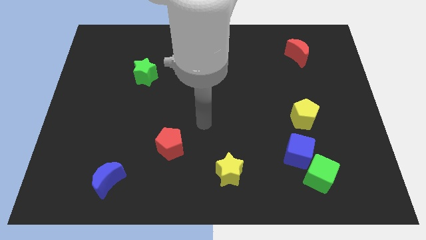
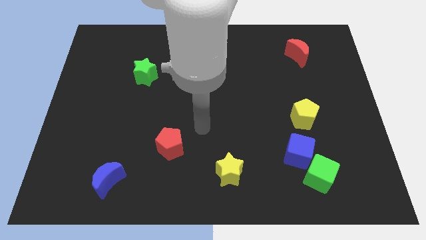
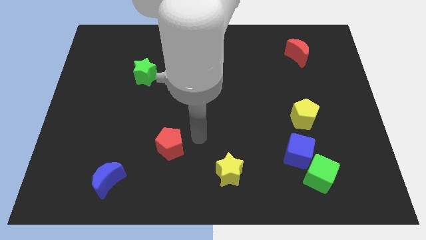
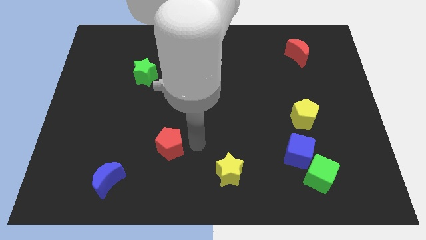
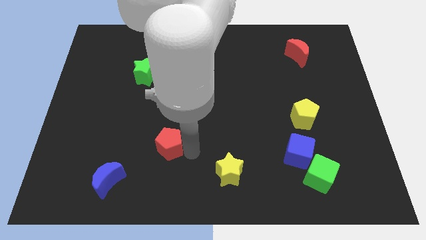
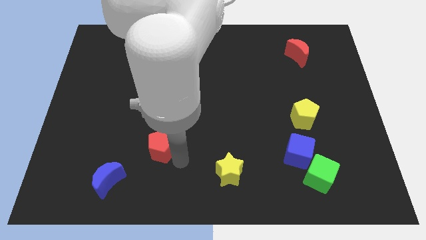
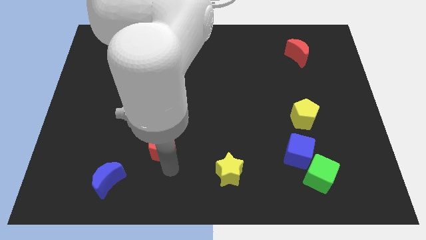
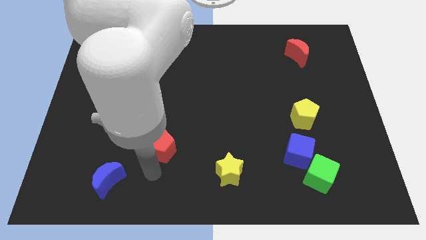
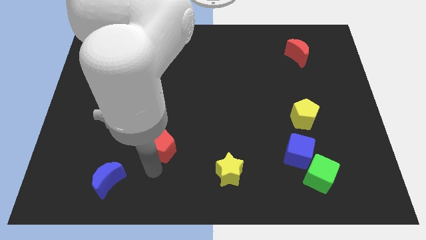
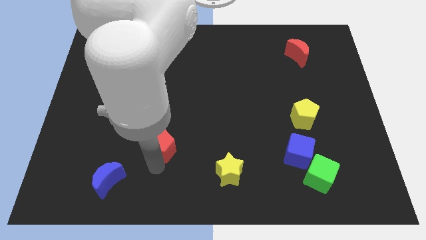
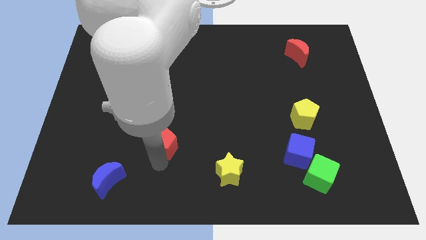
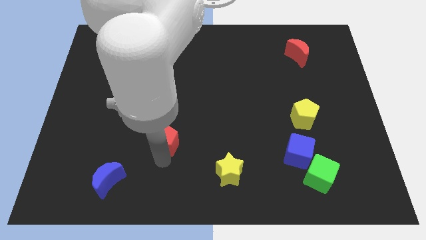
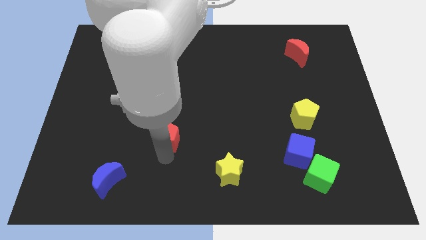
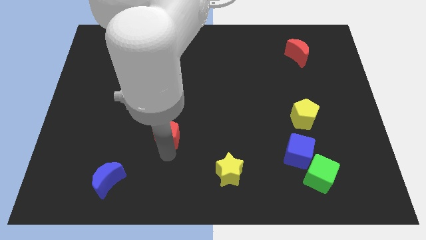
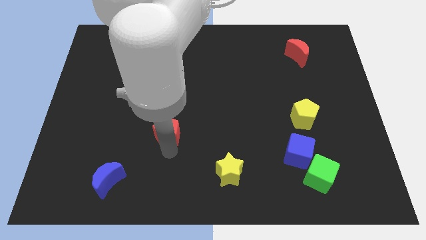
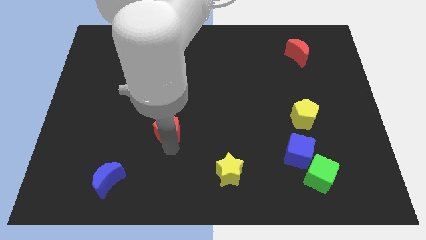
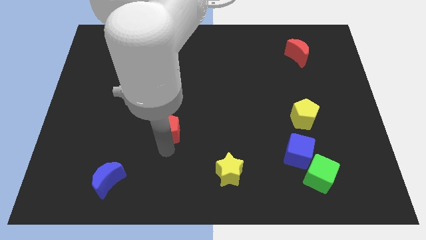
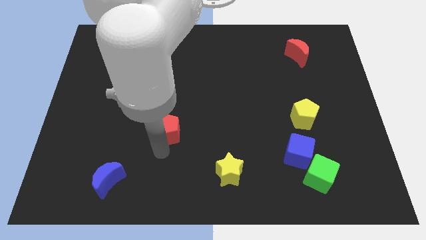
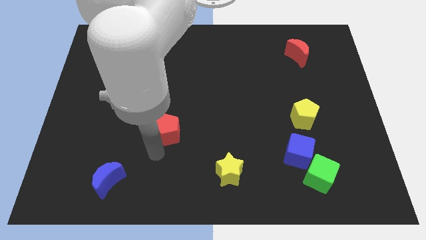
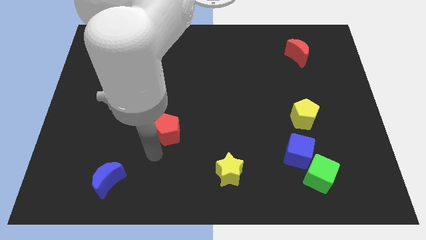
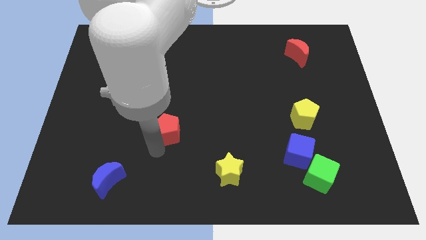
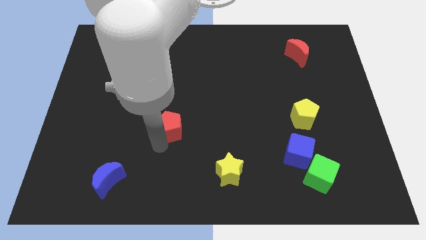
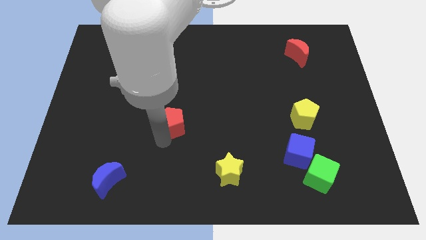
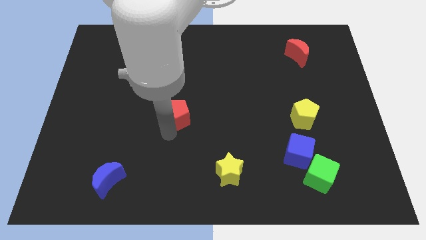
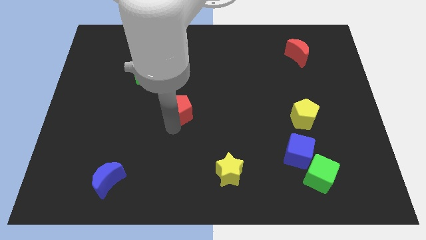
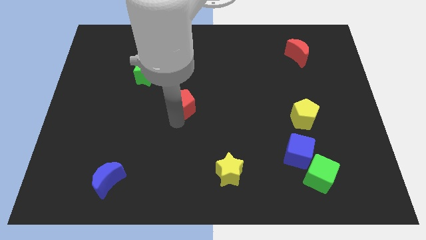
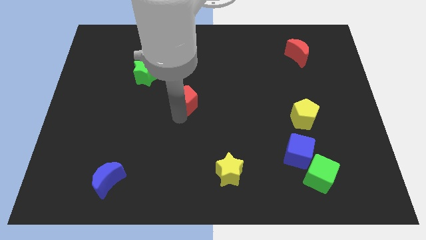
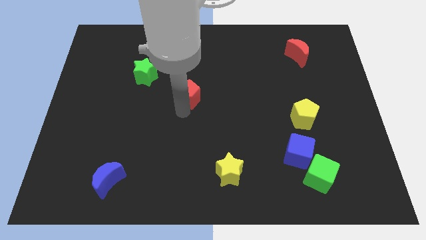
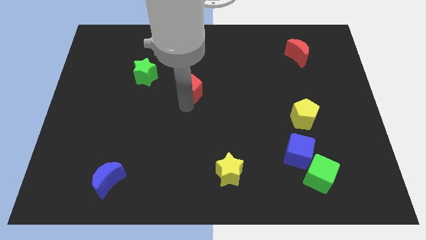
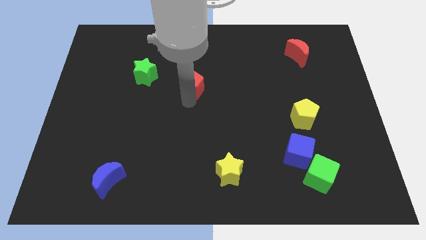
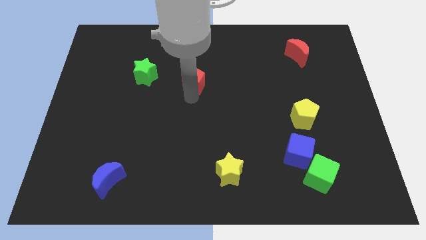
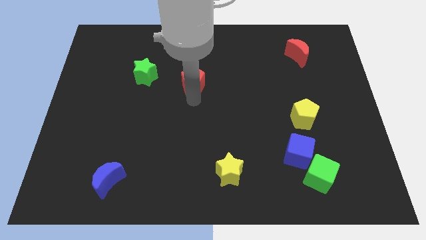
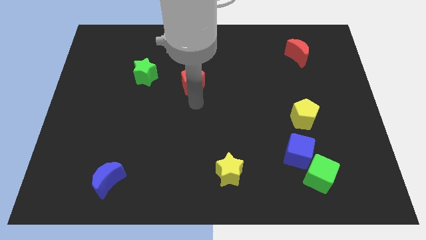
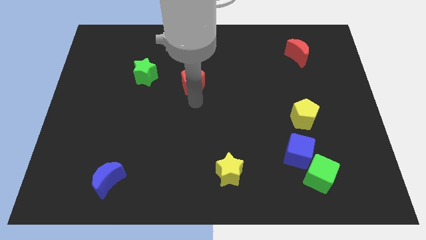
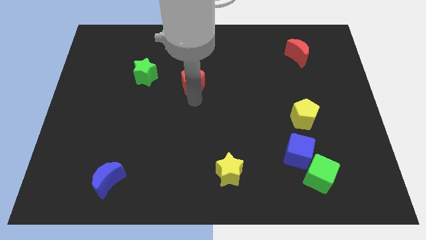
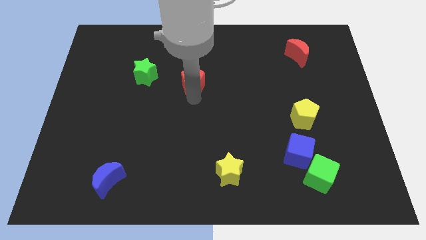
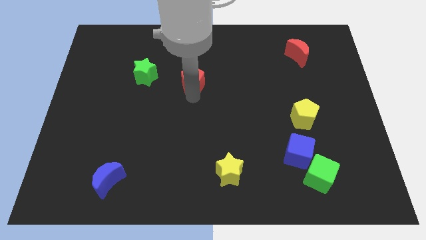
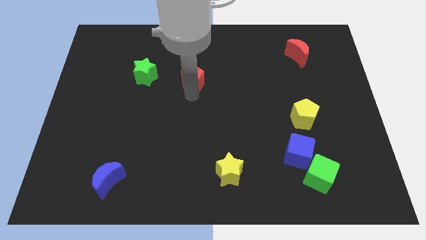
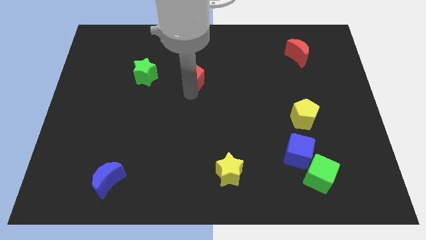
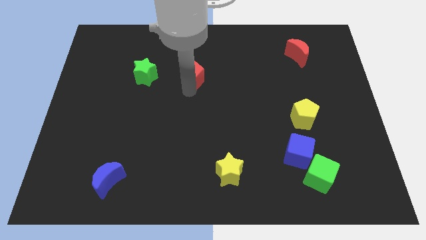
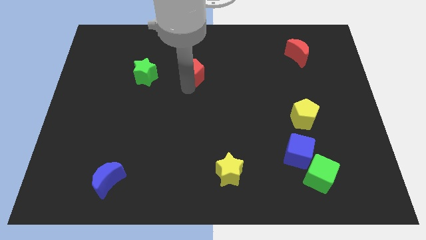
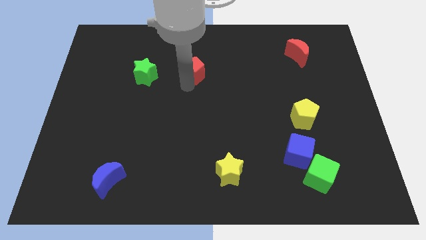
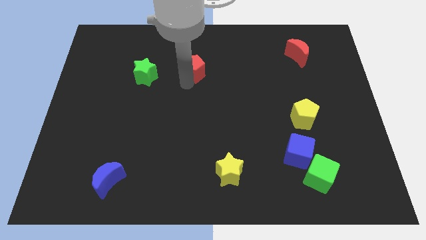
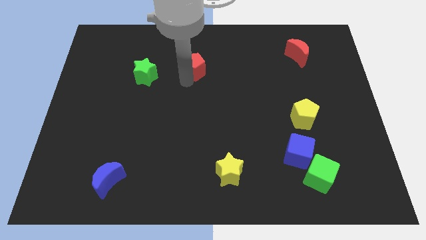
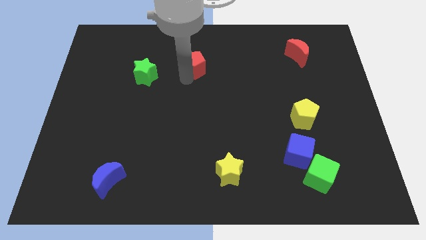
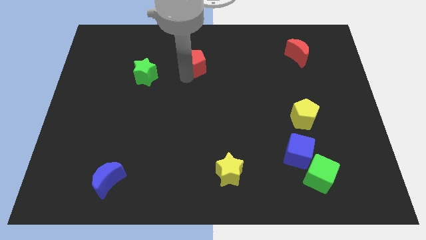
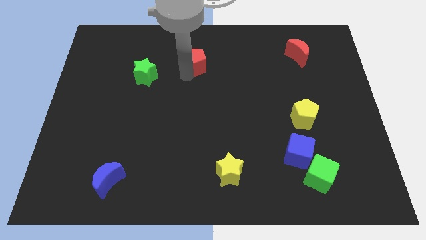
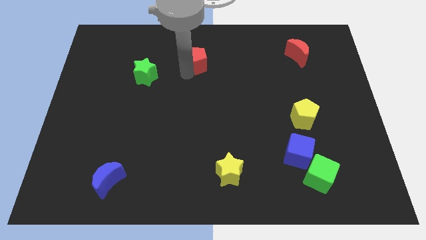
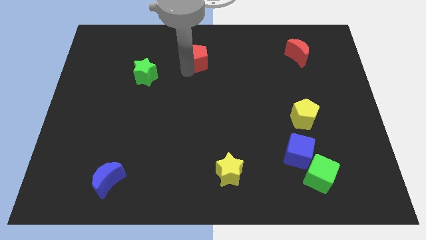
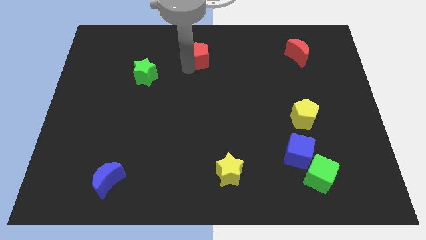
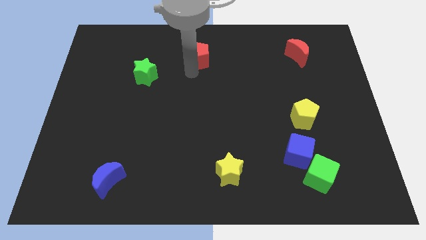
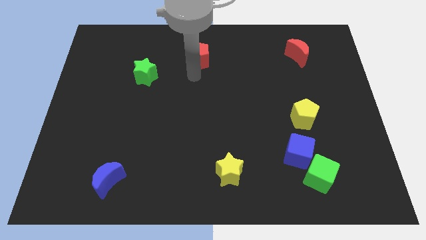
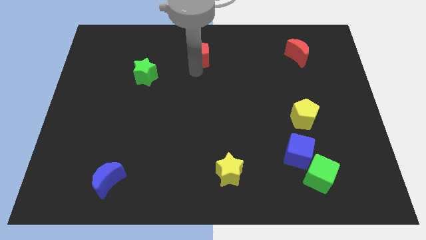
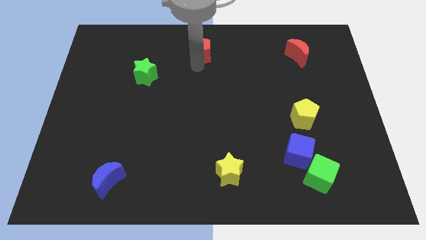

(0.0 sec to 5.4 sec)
put the red pentagon to the top
